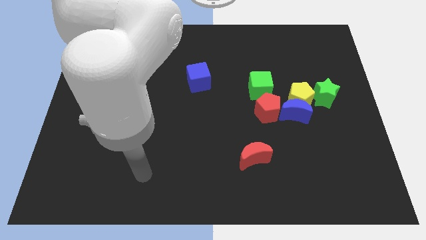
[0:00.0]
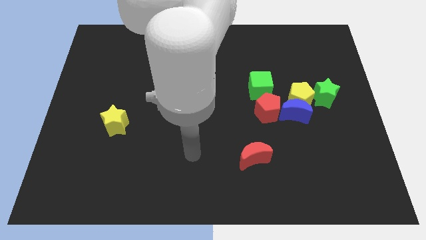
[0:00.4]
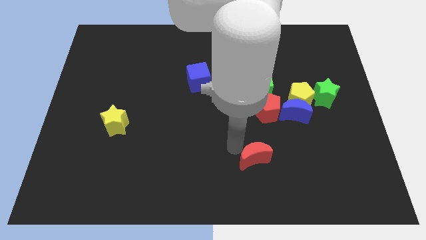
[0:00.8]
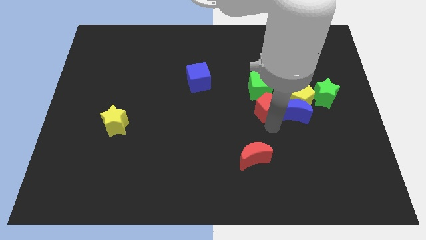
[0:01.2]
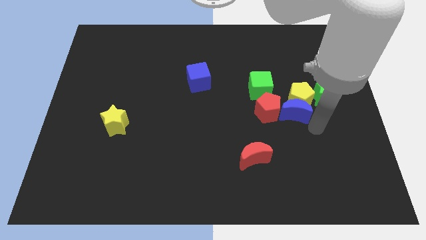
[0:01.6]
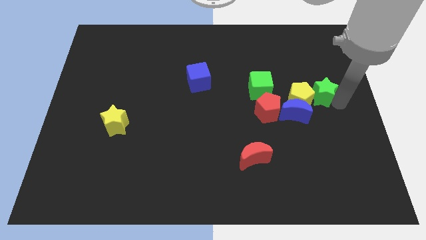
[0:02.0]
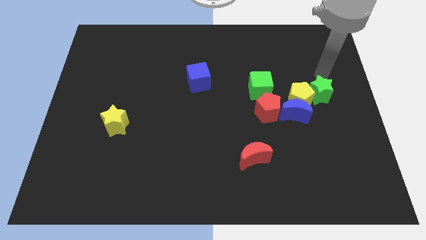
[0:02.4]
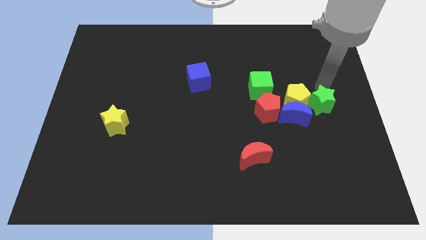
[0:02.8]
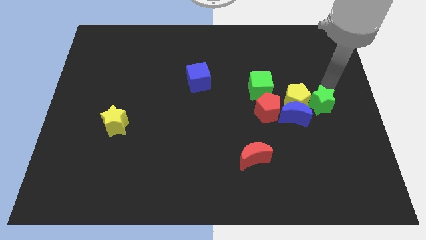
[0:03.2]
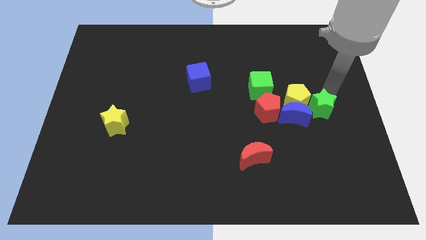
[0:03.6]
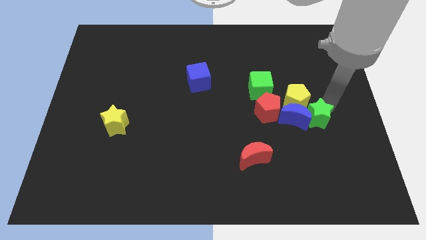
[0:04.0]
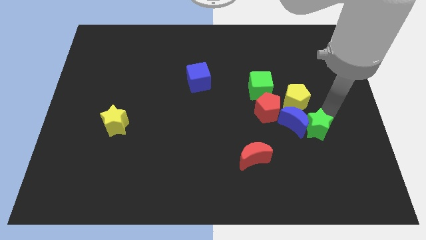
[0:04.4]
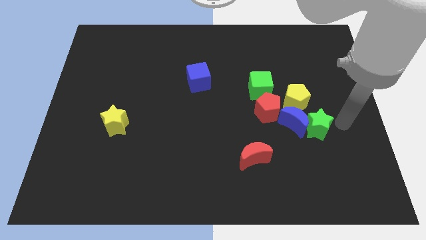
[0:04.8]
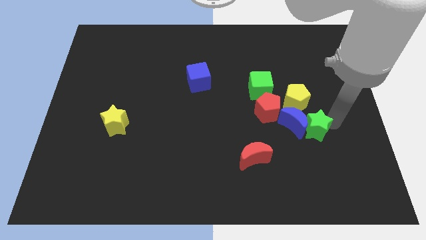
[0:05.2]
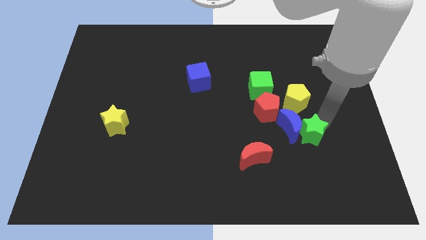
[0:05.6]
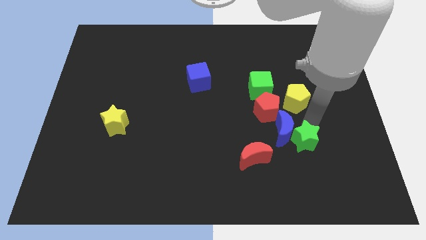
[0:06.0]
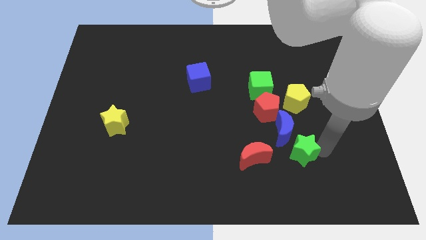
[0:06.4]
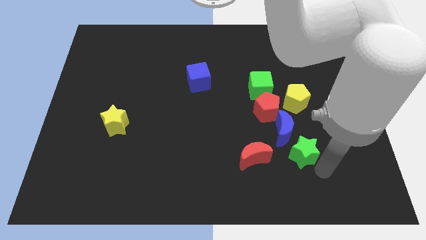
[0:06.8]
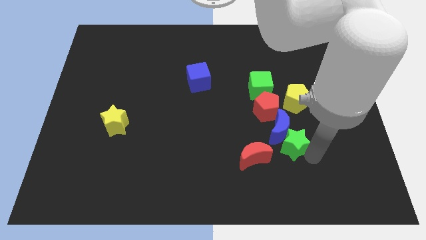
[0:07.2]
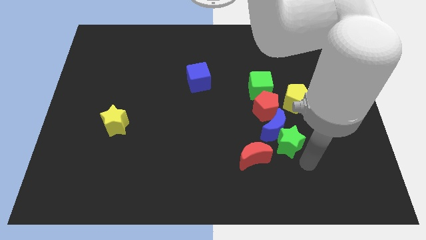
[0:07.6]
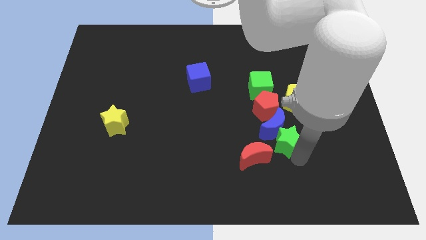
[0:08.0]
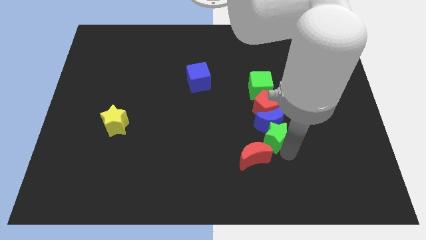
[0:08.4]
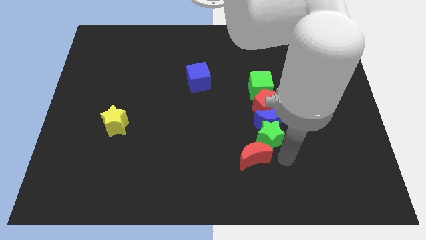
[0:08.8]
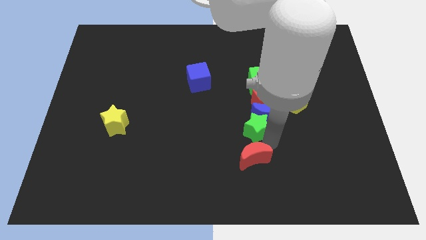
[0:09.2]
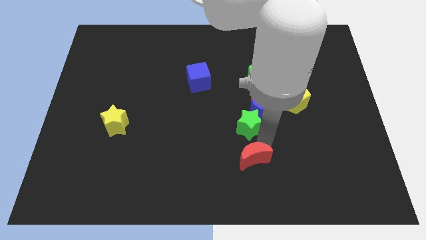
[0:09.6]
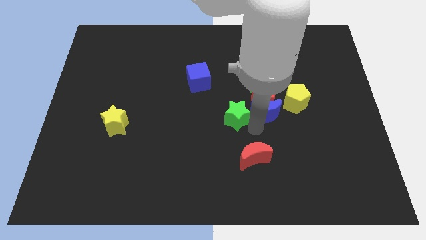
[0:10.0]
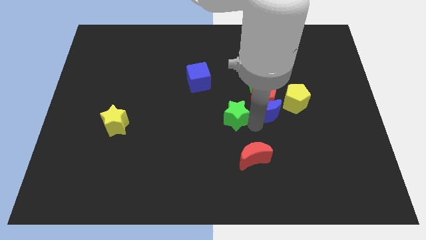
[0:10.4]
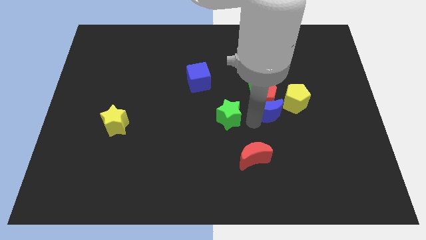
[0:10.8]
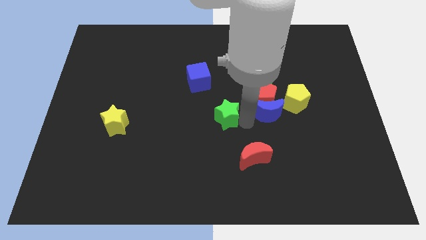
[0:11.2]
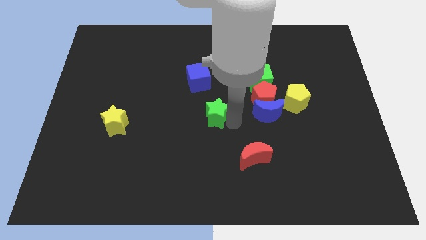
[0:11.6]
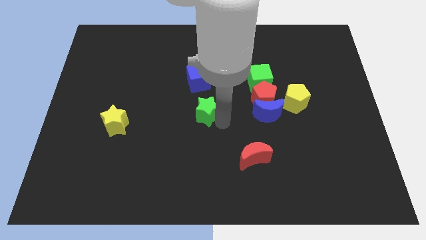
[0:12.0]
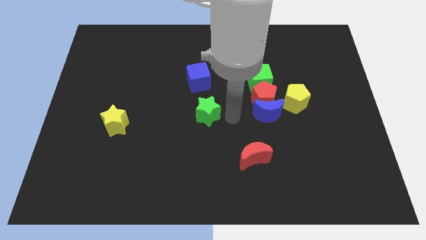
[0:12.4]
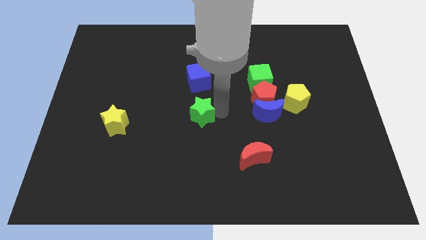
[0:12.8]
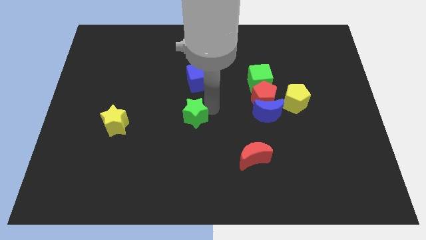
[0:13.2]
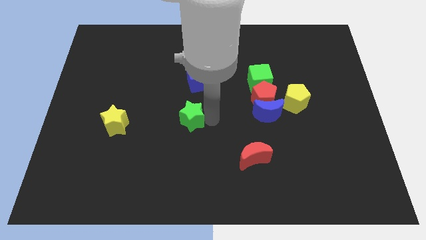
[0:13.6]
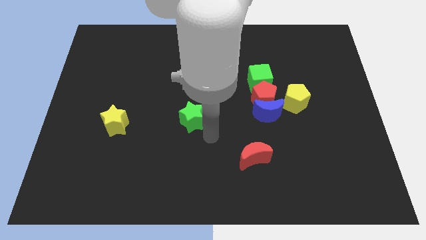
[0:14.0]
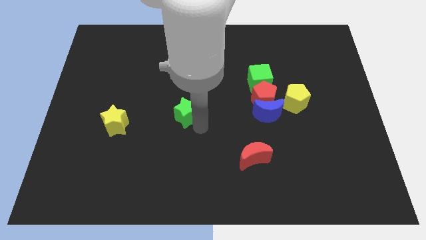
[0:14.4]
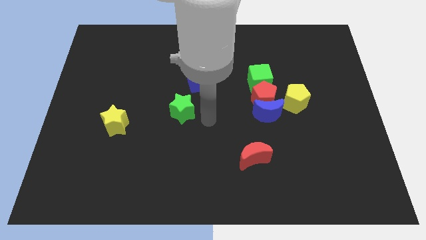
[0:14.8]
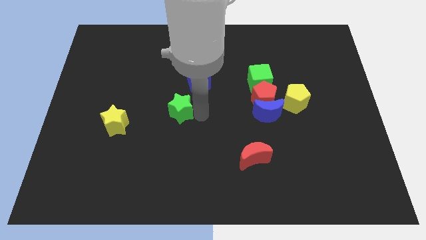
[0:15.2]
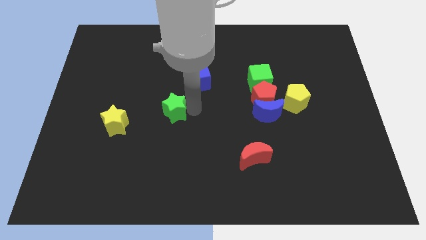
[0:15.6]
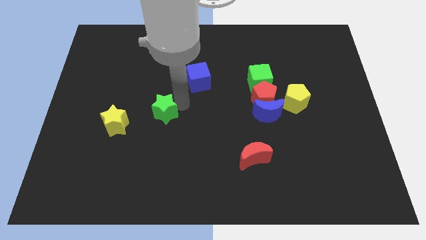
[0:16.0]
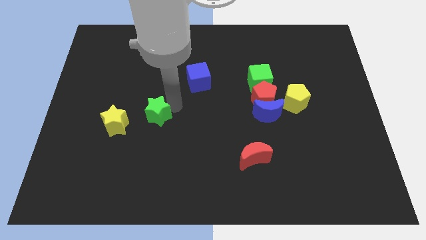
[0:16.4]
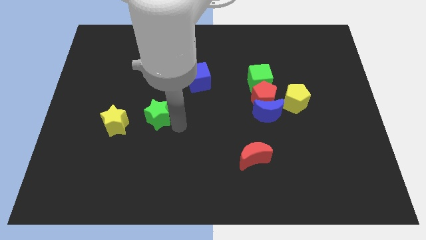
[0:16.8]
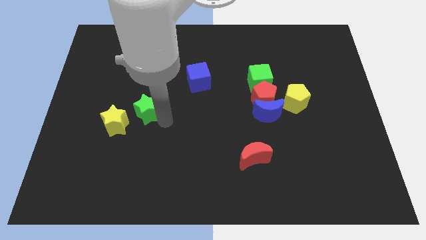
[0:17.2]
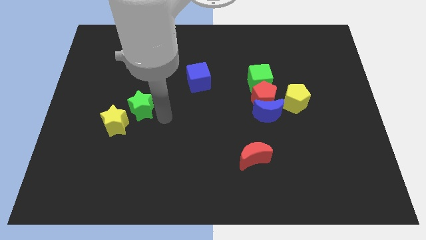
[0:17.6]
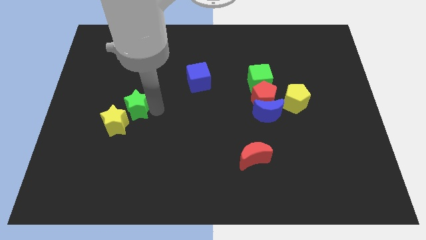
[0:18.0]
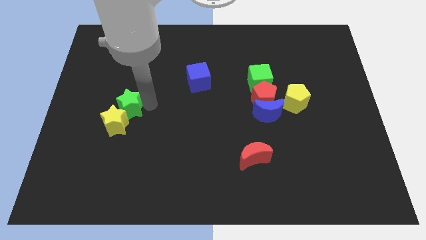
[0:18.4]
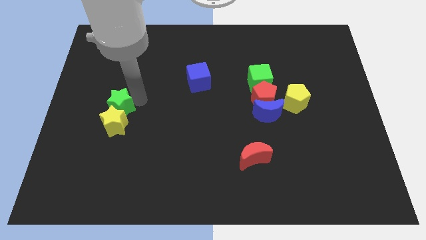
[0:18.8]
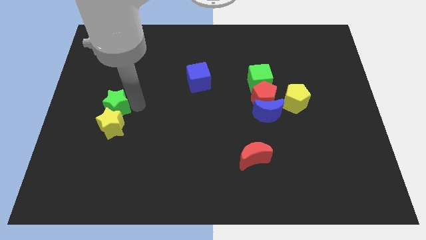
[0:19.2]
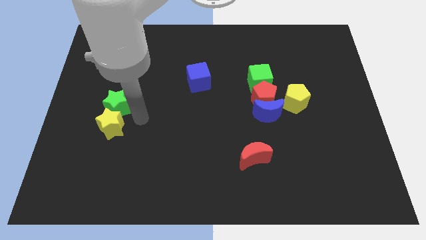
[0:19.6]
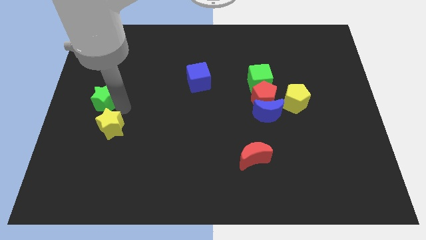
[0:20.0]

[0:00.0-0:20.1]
put the green star to the left side of the board

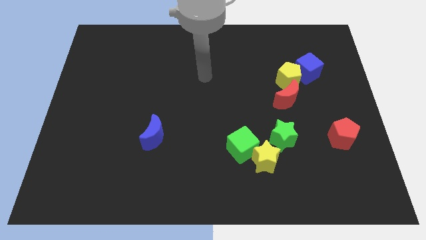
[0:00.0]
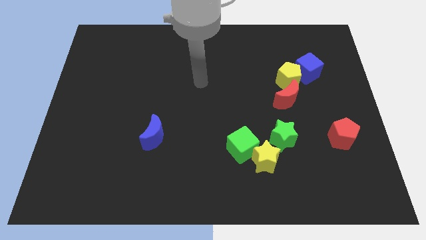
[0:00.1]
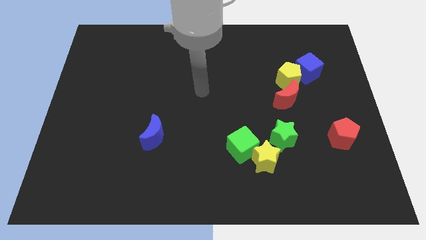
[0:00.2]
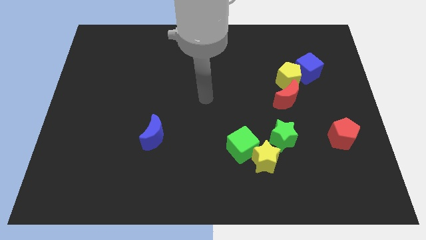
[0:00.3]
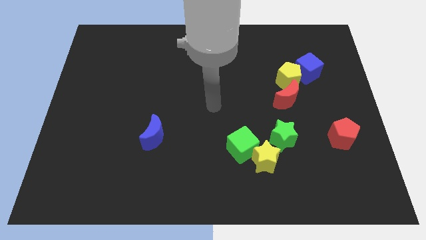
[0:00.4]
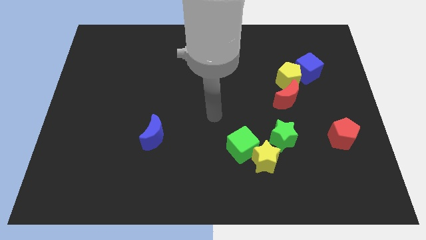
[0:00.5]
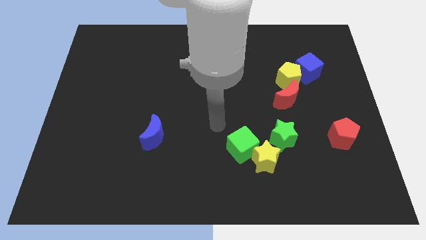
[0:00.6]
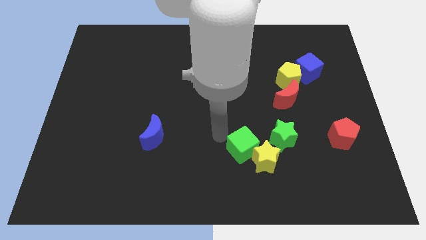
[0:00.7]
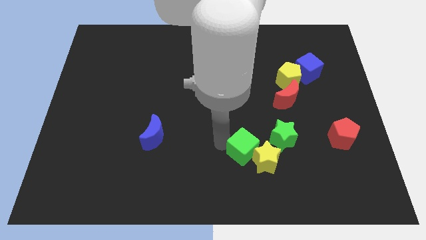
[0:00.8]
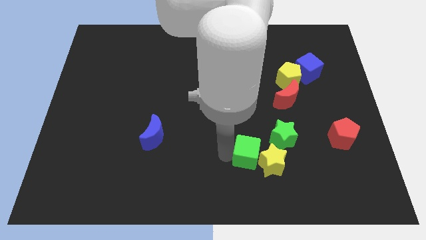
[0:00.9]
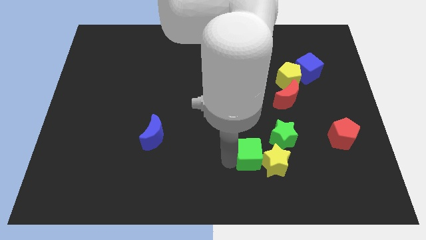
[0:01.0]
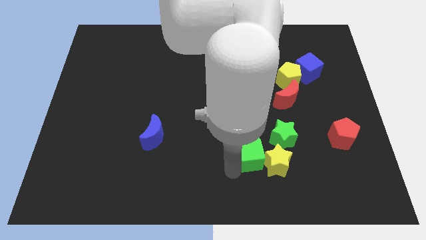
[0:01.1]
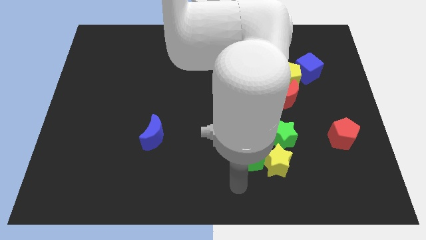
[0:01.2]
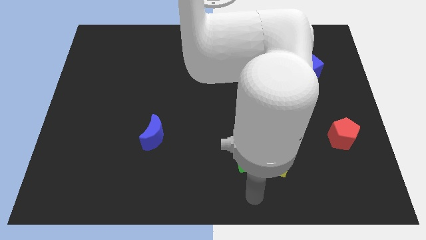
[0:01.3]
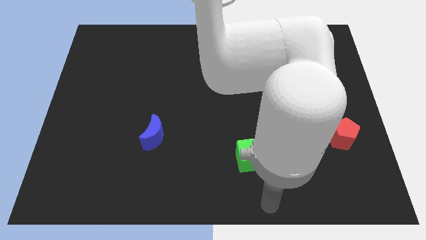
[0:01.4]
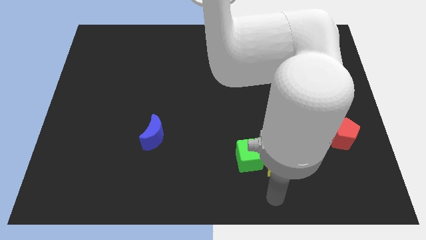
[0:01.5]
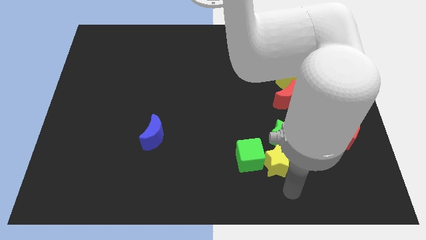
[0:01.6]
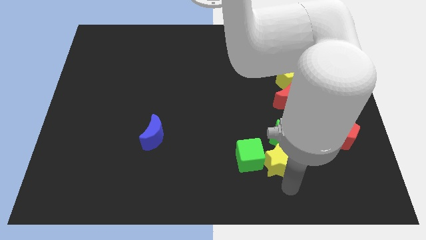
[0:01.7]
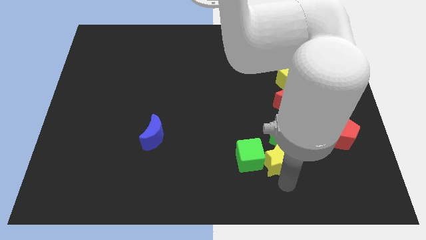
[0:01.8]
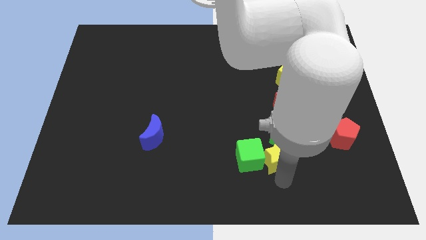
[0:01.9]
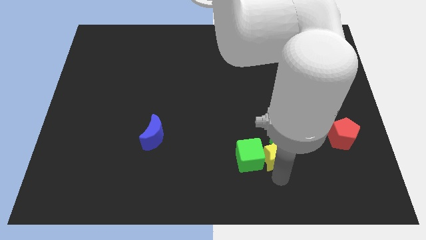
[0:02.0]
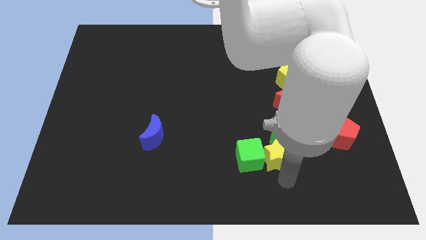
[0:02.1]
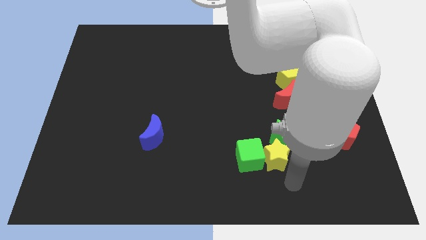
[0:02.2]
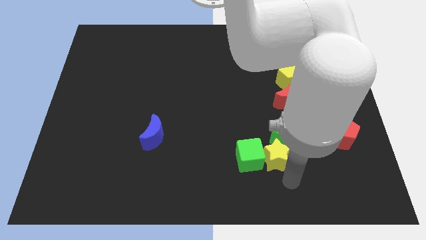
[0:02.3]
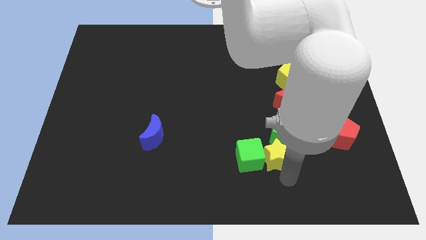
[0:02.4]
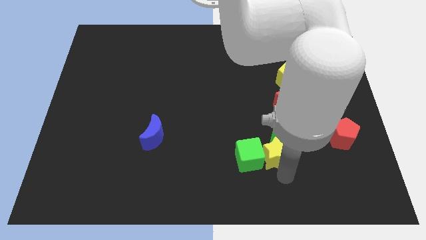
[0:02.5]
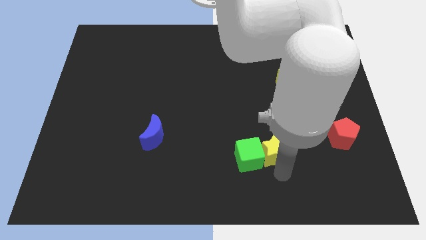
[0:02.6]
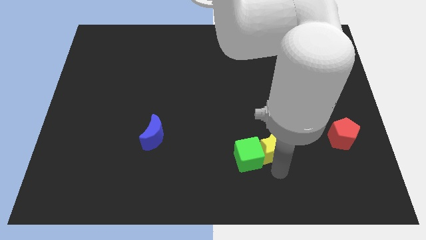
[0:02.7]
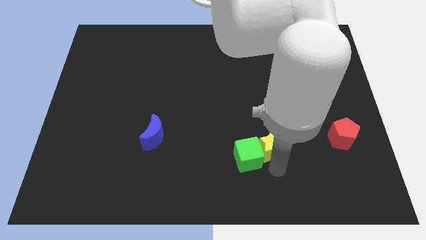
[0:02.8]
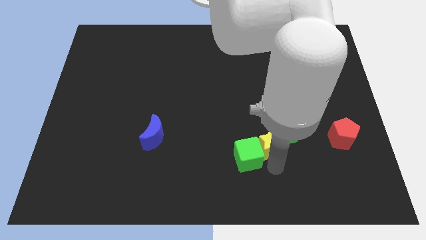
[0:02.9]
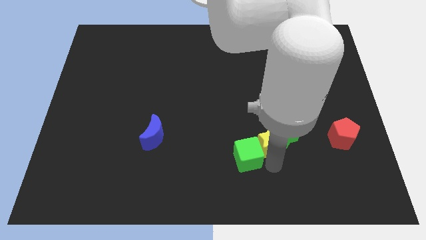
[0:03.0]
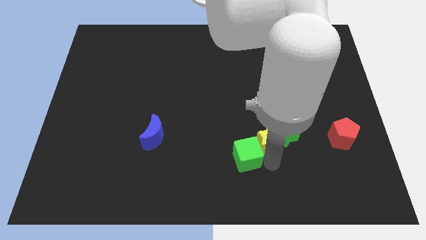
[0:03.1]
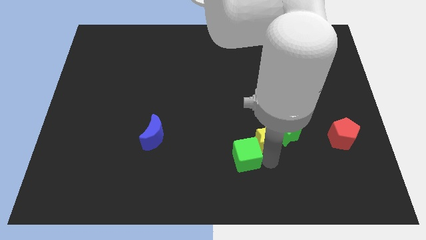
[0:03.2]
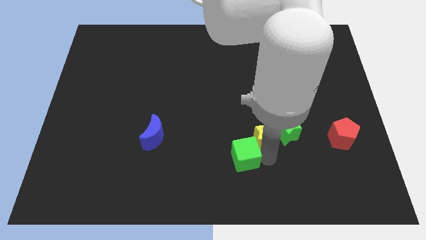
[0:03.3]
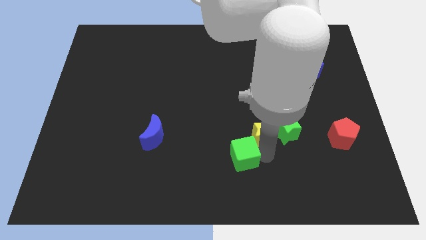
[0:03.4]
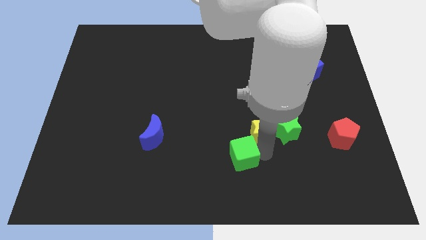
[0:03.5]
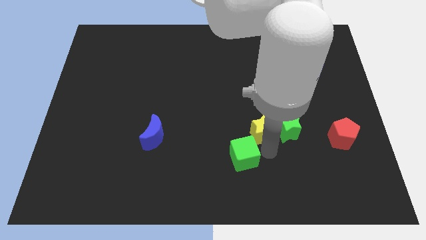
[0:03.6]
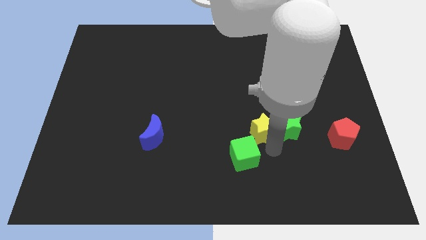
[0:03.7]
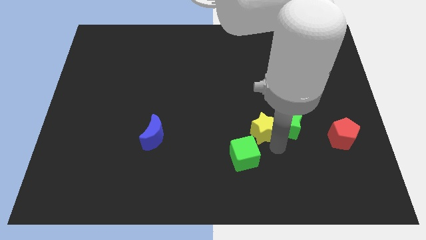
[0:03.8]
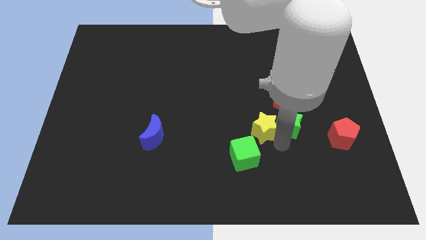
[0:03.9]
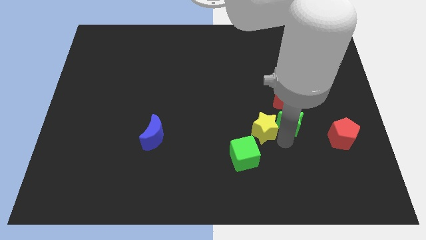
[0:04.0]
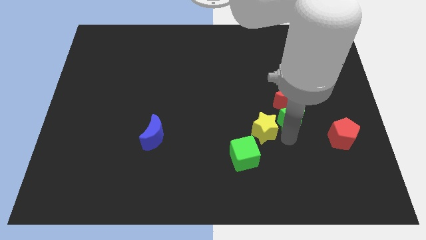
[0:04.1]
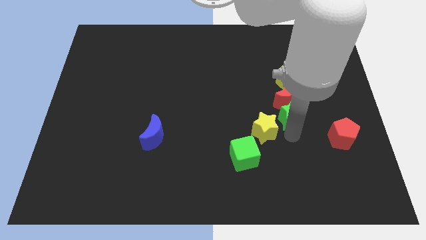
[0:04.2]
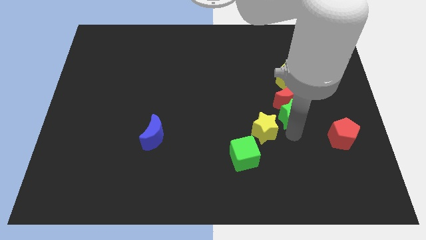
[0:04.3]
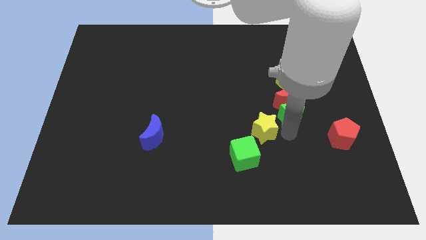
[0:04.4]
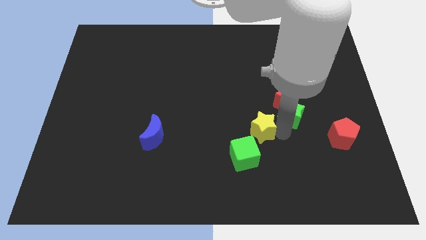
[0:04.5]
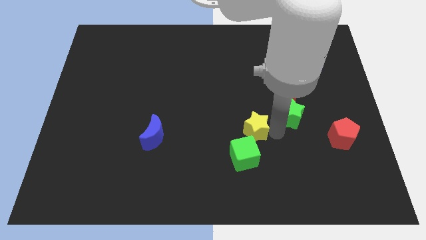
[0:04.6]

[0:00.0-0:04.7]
slide the yellow star to the center of the board
